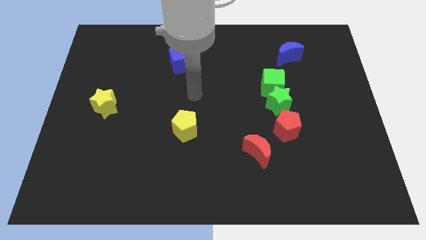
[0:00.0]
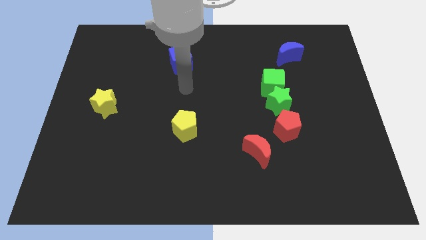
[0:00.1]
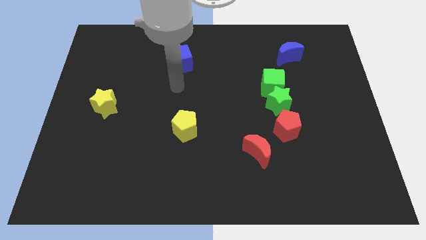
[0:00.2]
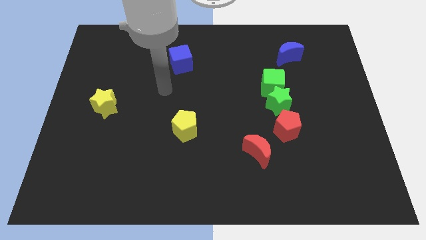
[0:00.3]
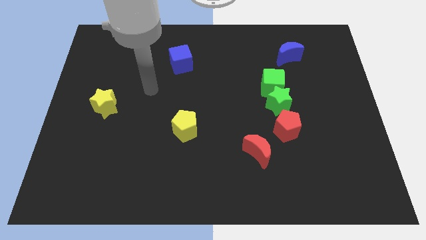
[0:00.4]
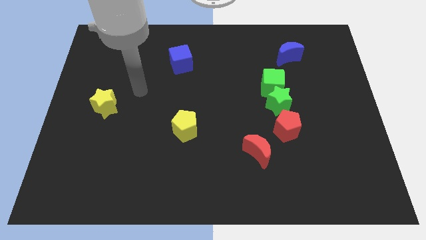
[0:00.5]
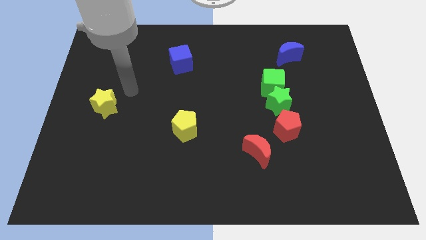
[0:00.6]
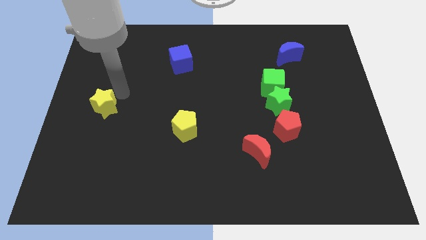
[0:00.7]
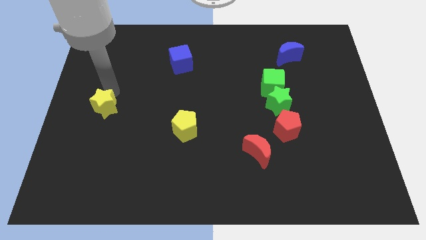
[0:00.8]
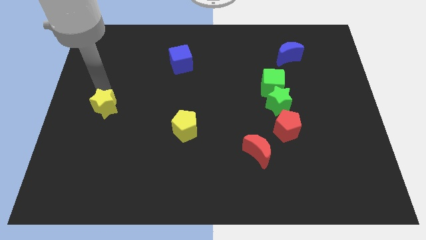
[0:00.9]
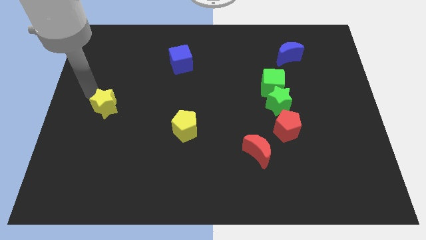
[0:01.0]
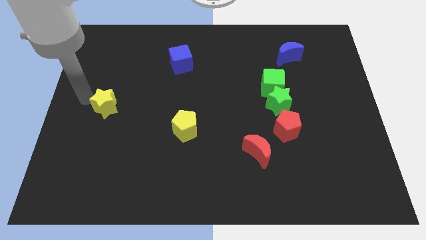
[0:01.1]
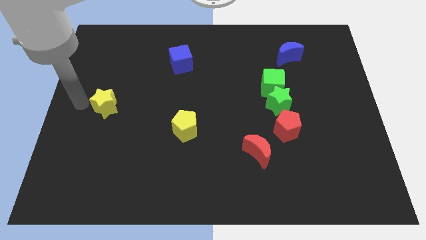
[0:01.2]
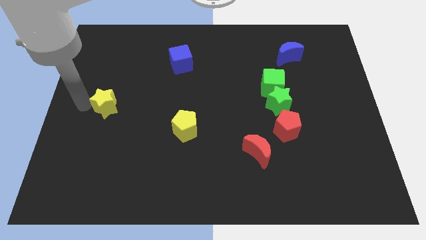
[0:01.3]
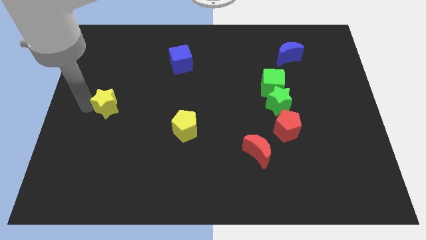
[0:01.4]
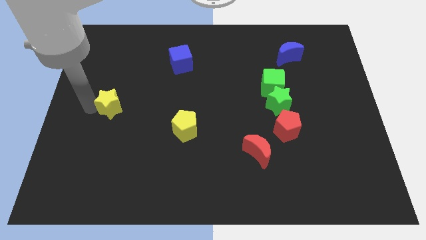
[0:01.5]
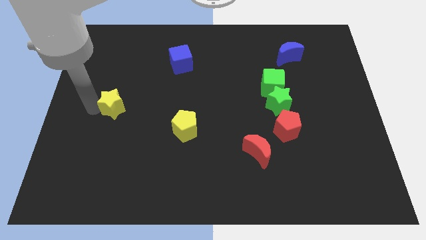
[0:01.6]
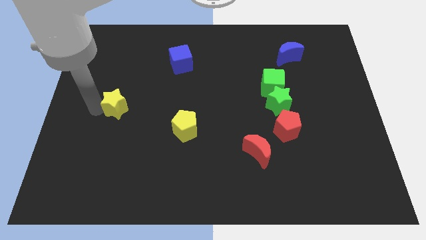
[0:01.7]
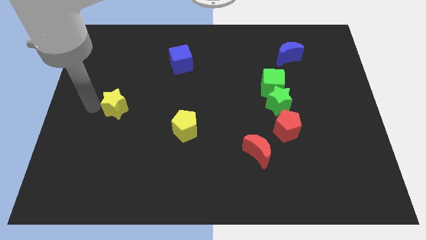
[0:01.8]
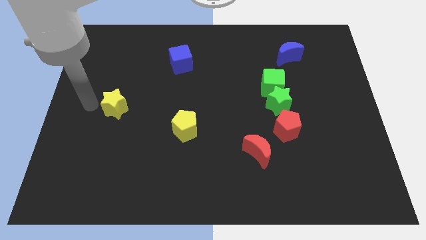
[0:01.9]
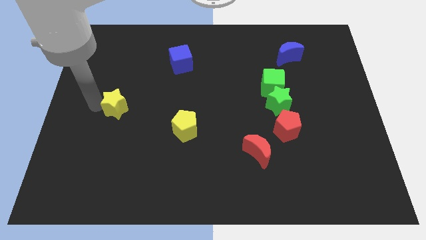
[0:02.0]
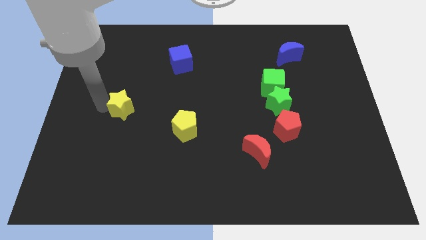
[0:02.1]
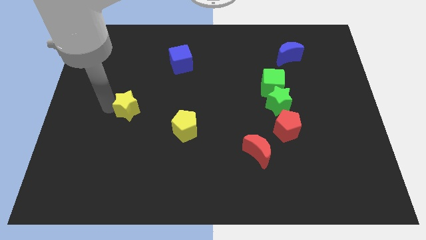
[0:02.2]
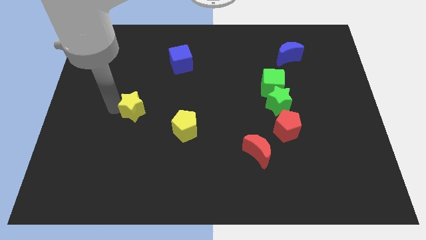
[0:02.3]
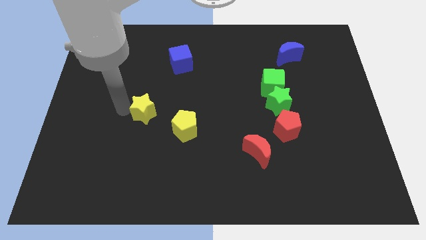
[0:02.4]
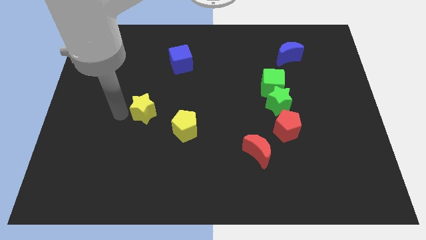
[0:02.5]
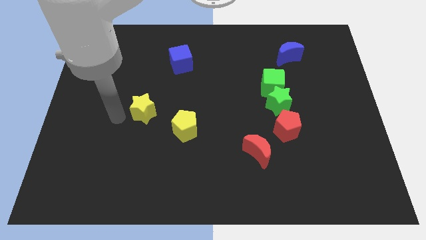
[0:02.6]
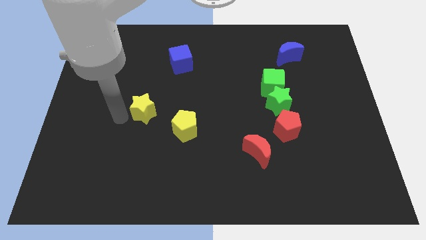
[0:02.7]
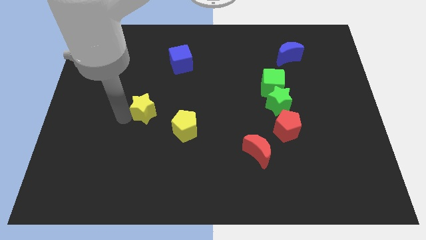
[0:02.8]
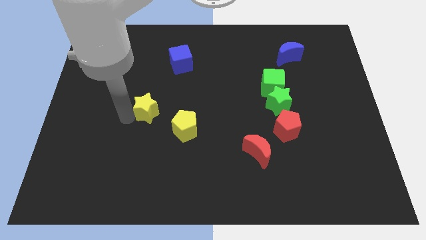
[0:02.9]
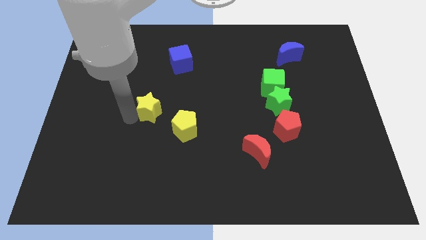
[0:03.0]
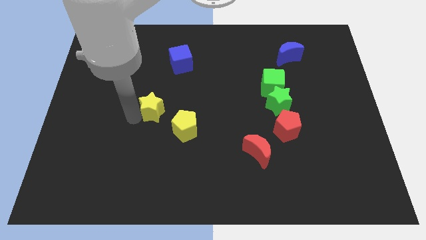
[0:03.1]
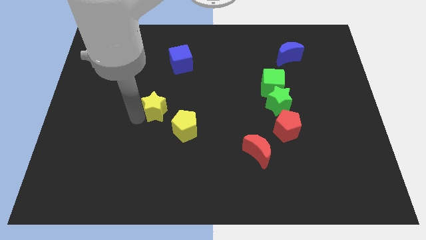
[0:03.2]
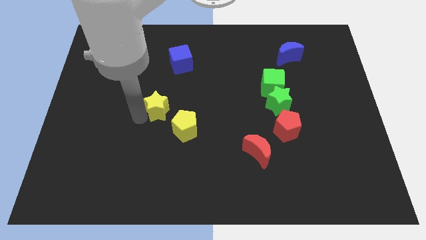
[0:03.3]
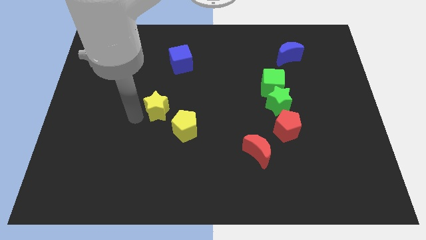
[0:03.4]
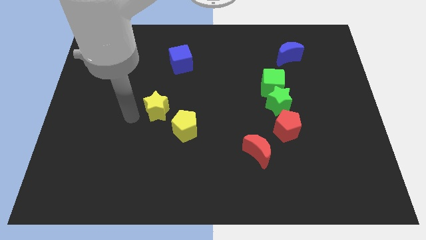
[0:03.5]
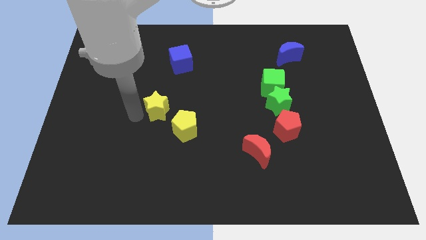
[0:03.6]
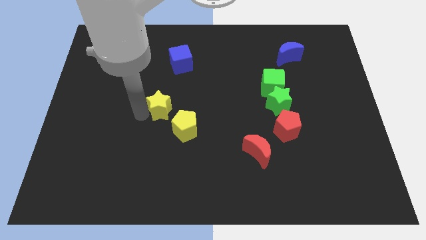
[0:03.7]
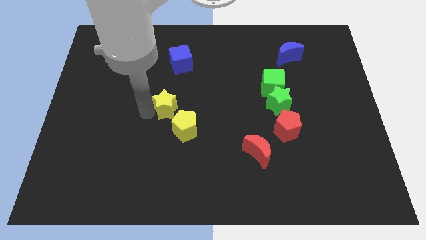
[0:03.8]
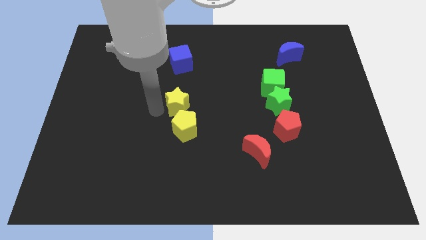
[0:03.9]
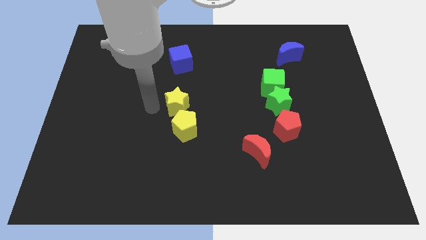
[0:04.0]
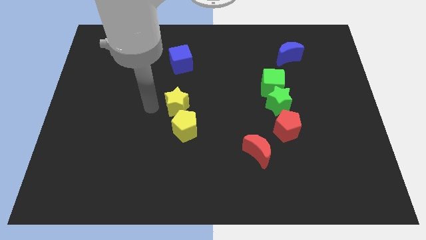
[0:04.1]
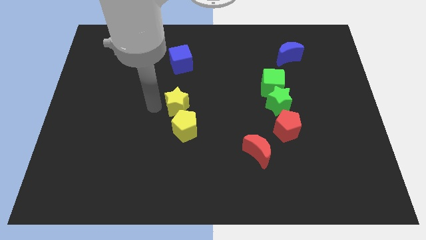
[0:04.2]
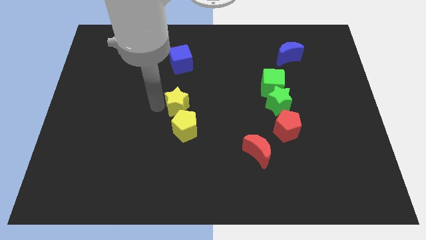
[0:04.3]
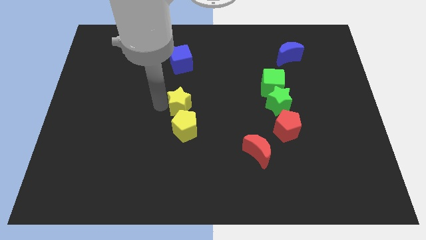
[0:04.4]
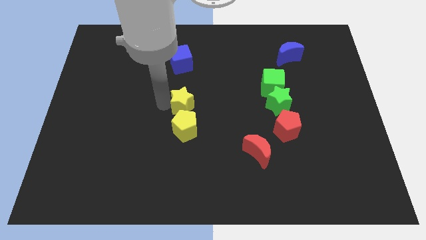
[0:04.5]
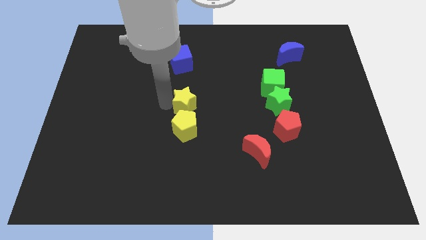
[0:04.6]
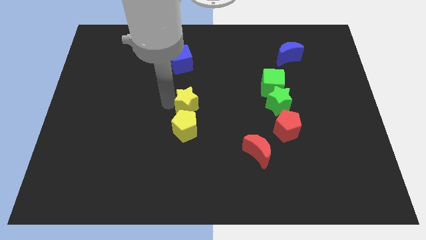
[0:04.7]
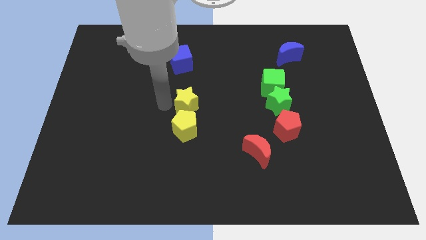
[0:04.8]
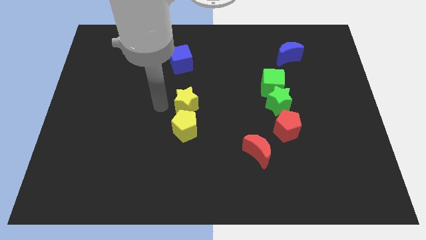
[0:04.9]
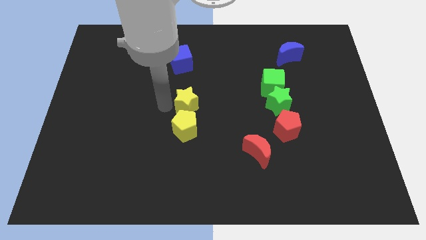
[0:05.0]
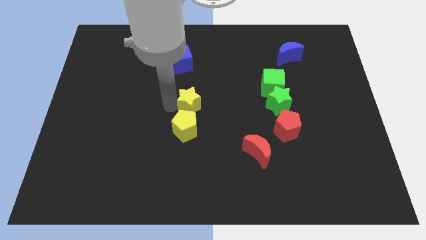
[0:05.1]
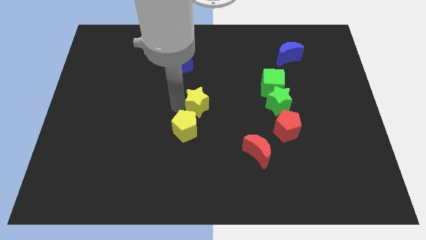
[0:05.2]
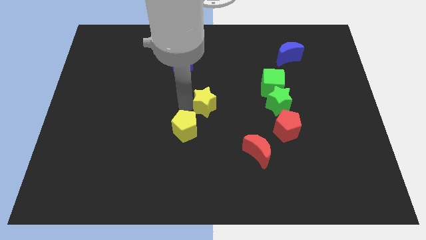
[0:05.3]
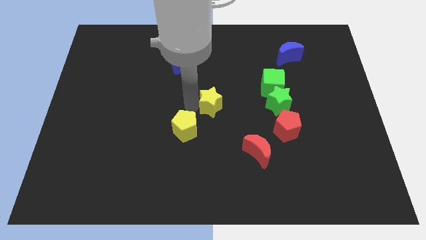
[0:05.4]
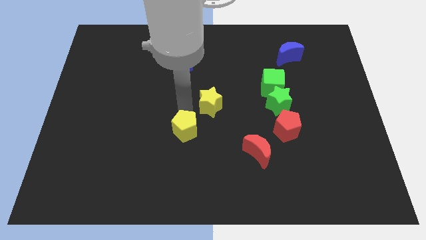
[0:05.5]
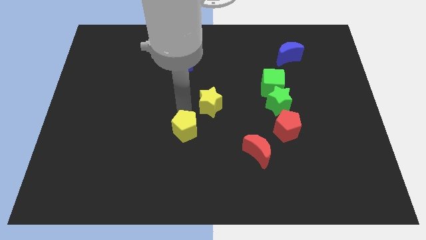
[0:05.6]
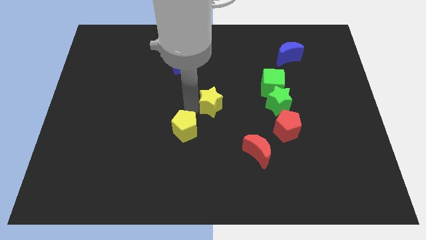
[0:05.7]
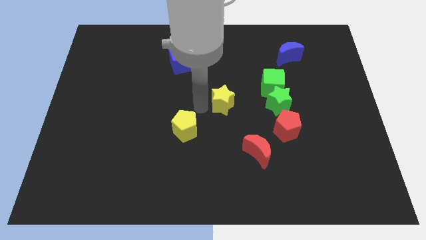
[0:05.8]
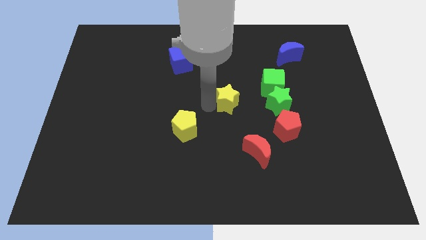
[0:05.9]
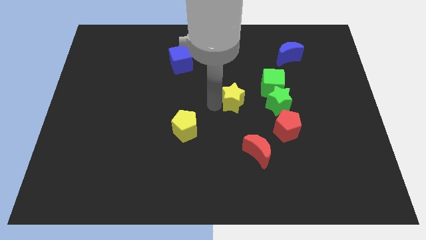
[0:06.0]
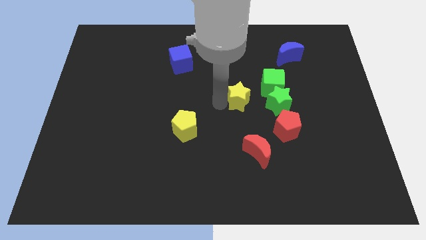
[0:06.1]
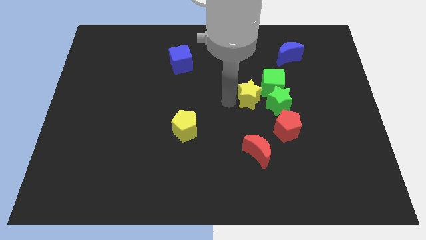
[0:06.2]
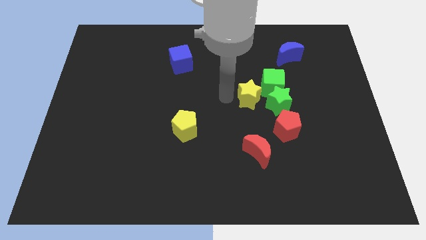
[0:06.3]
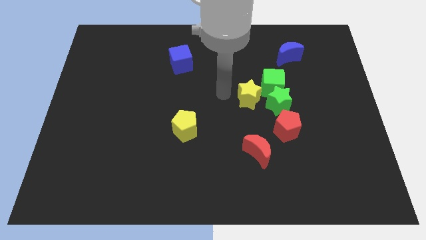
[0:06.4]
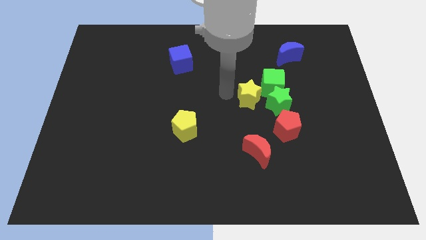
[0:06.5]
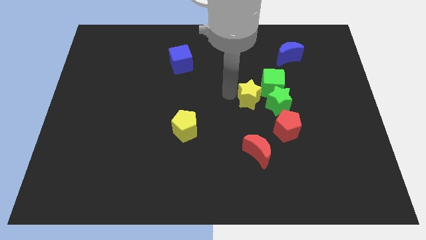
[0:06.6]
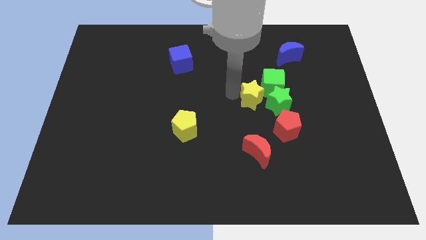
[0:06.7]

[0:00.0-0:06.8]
put the yellow star next to the green star

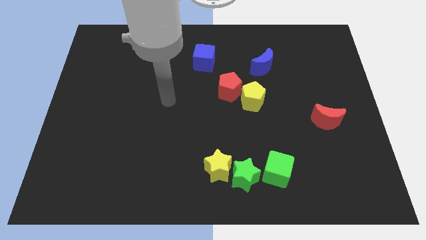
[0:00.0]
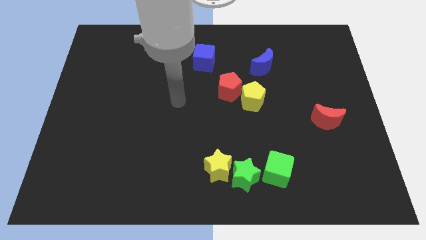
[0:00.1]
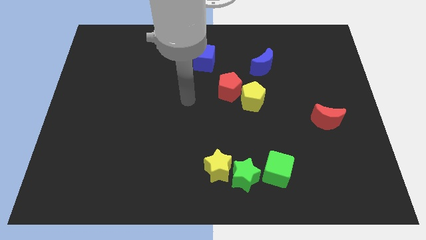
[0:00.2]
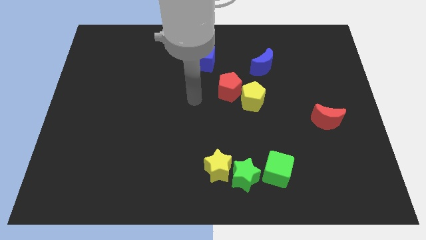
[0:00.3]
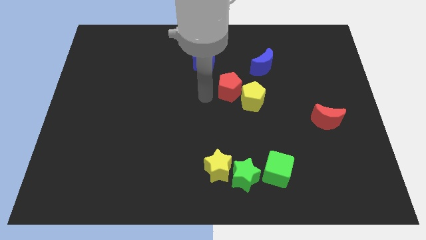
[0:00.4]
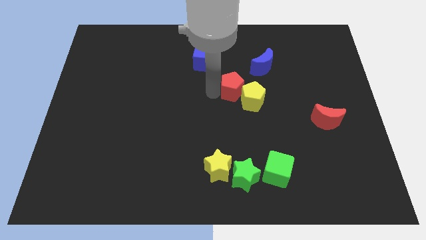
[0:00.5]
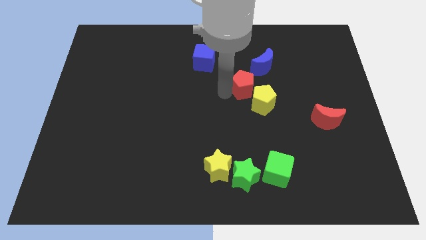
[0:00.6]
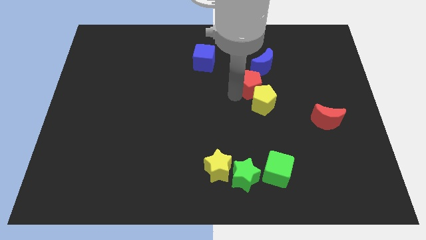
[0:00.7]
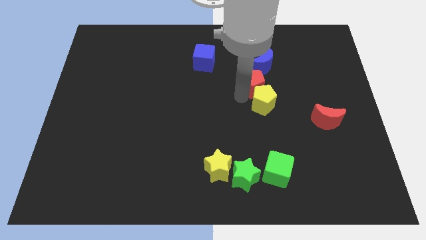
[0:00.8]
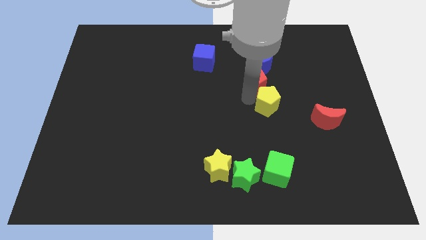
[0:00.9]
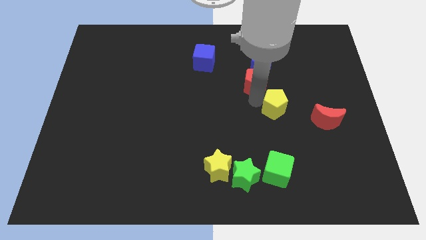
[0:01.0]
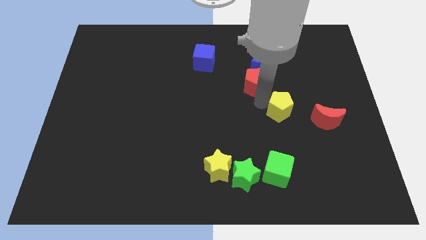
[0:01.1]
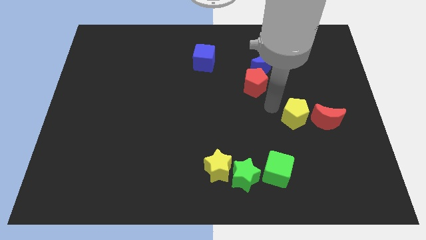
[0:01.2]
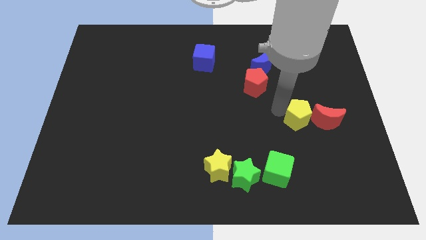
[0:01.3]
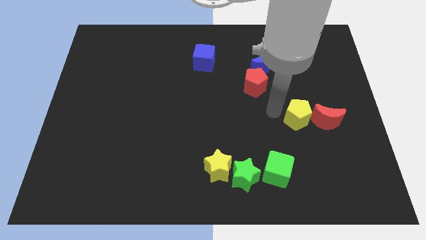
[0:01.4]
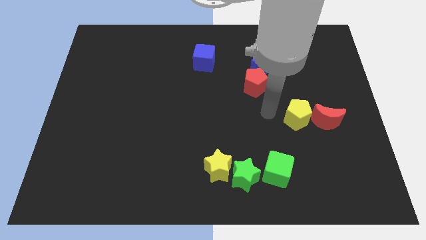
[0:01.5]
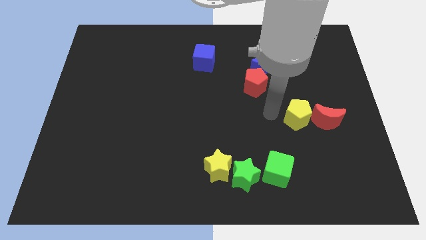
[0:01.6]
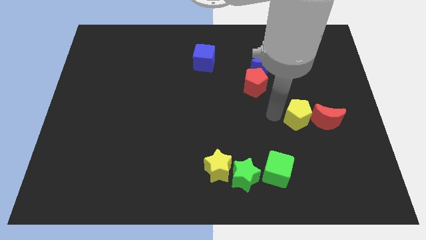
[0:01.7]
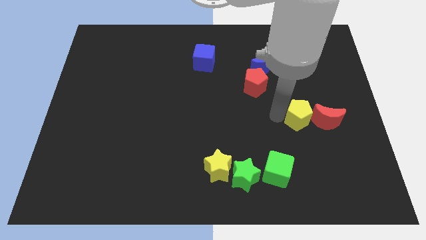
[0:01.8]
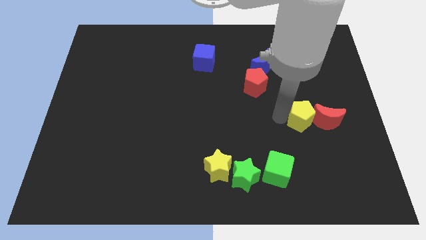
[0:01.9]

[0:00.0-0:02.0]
put the yellow pentagon close to the red moon
